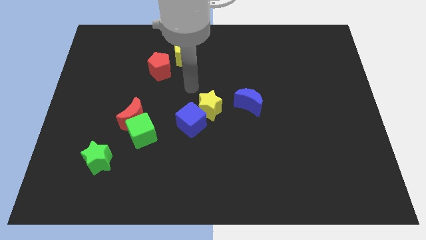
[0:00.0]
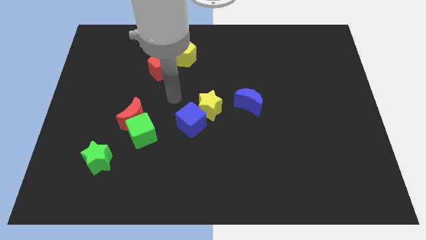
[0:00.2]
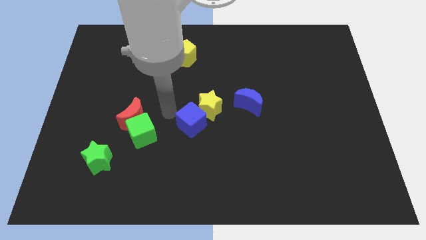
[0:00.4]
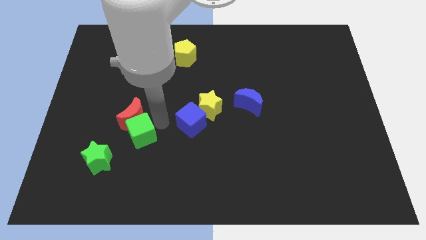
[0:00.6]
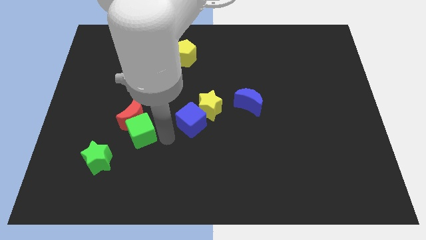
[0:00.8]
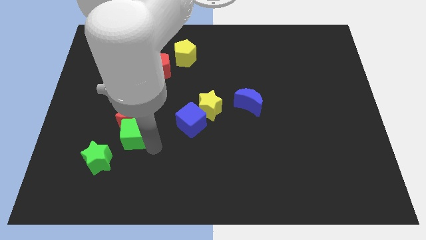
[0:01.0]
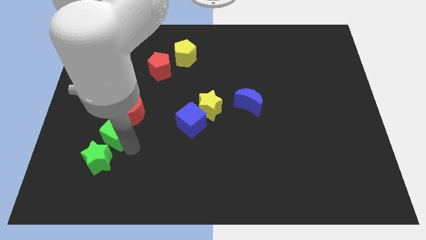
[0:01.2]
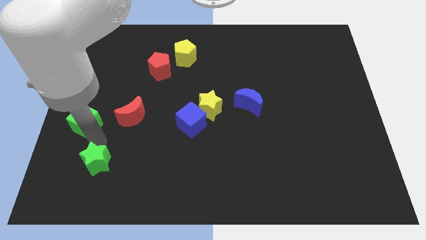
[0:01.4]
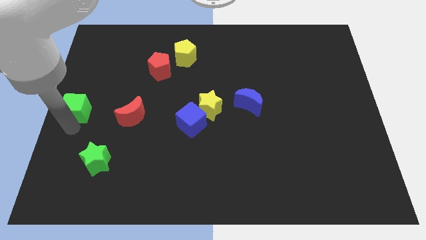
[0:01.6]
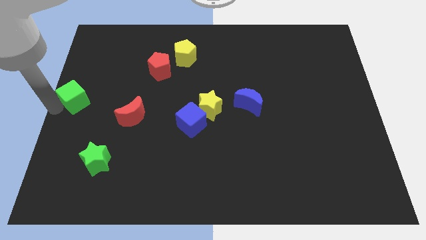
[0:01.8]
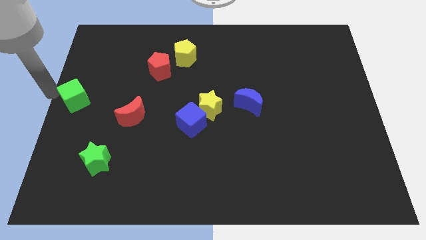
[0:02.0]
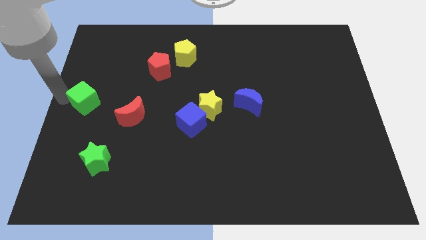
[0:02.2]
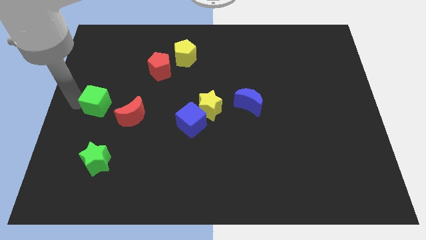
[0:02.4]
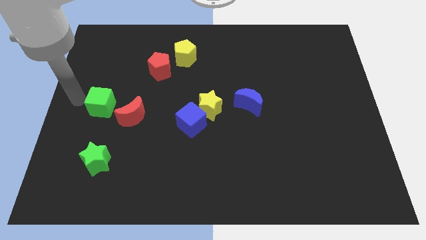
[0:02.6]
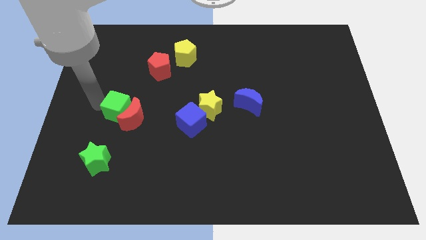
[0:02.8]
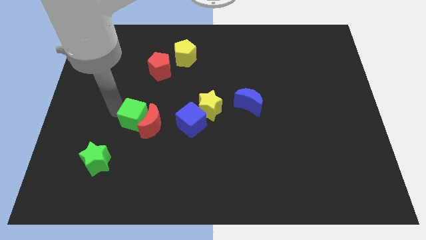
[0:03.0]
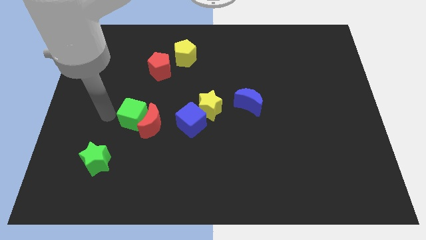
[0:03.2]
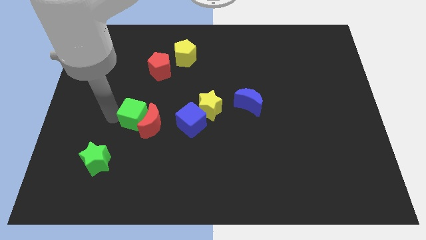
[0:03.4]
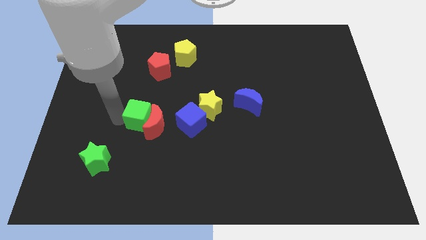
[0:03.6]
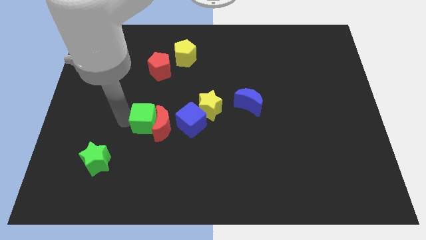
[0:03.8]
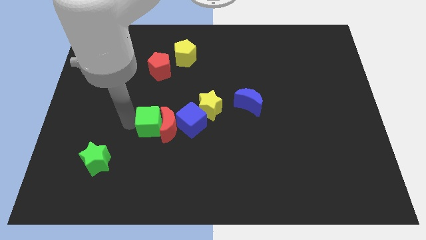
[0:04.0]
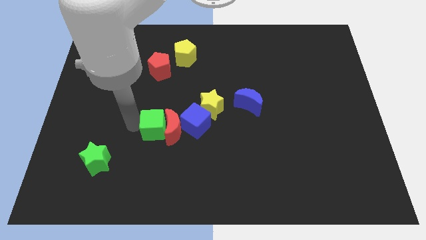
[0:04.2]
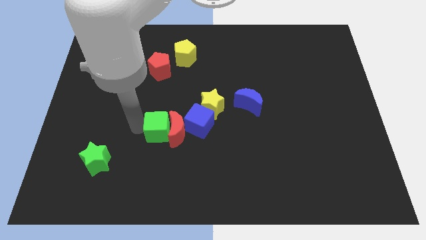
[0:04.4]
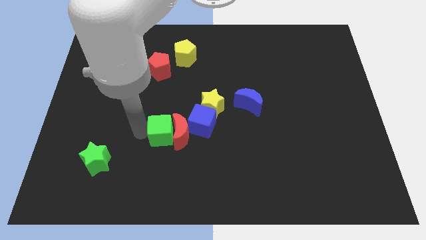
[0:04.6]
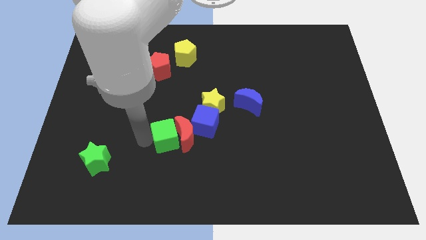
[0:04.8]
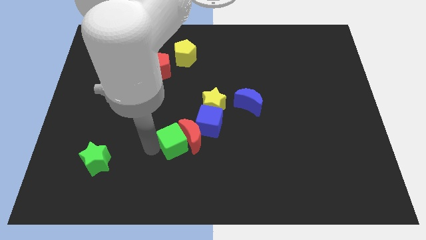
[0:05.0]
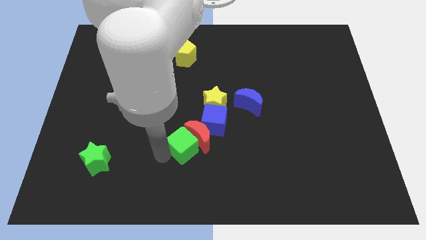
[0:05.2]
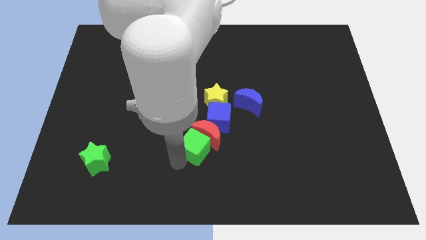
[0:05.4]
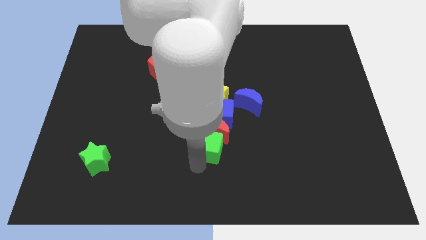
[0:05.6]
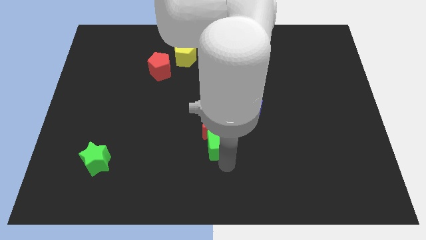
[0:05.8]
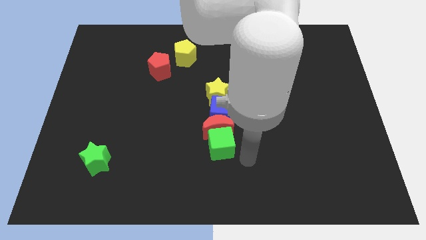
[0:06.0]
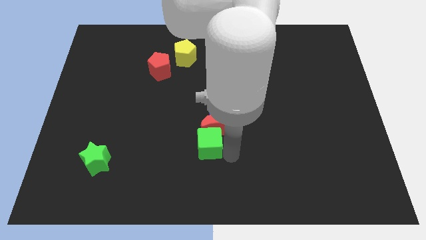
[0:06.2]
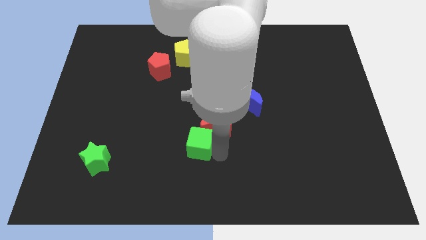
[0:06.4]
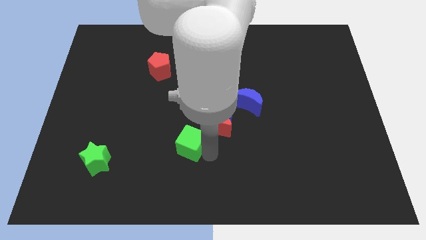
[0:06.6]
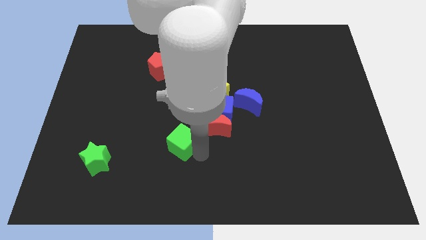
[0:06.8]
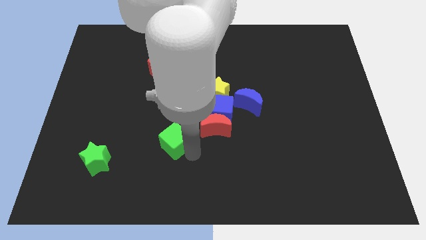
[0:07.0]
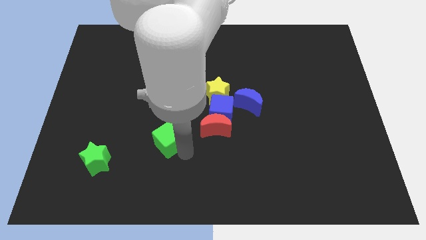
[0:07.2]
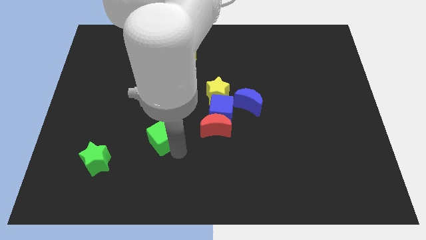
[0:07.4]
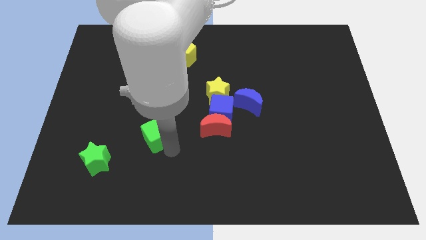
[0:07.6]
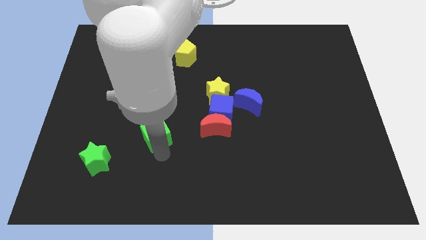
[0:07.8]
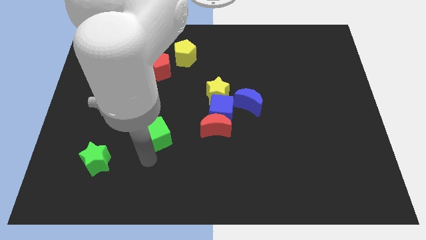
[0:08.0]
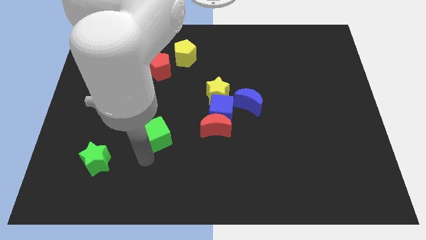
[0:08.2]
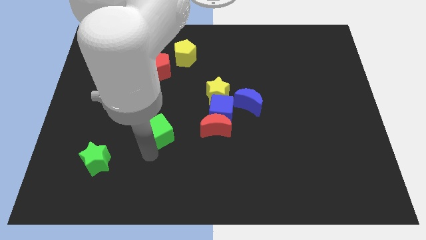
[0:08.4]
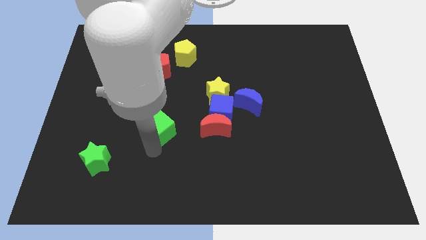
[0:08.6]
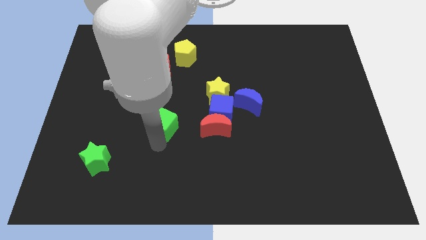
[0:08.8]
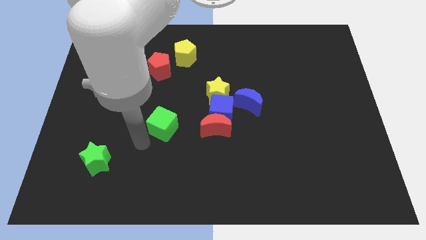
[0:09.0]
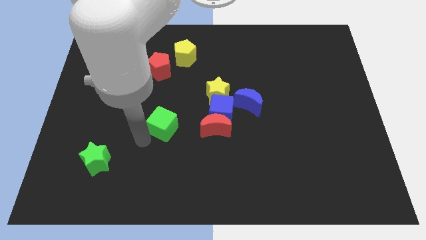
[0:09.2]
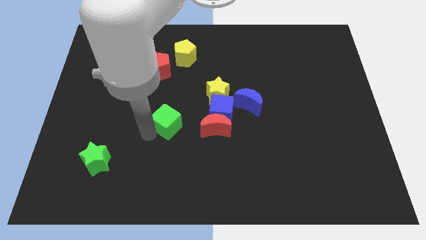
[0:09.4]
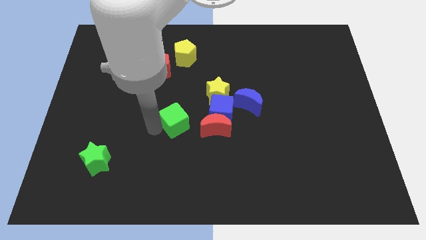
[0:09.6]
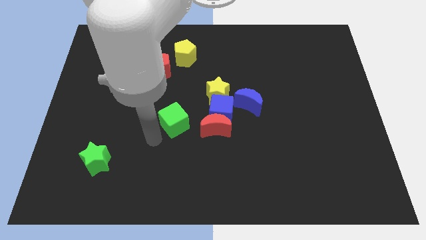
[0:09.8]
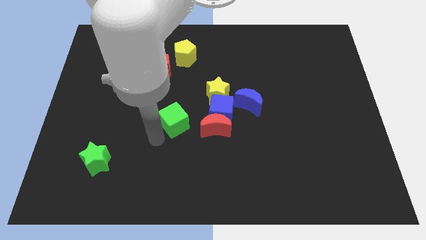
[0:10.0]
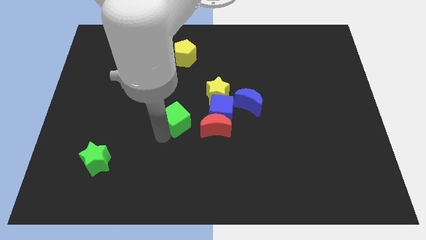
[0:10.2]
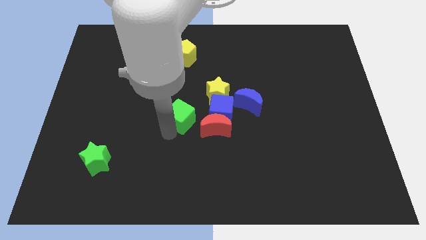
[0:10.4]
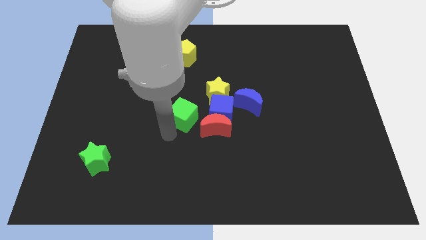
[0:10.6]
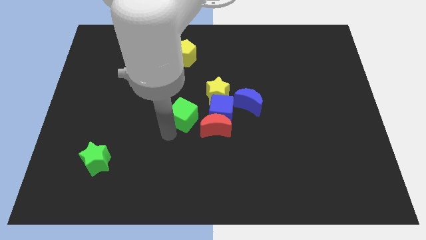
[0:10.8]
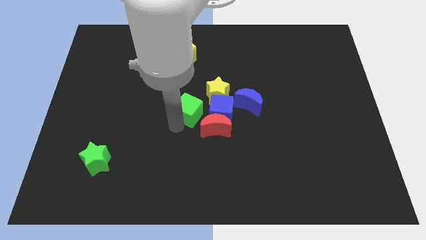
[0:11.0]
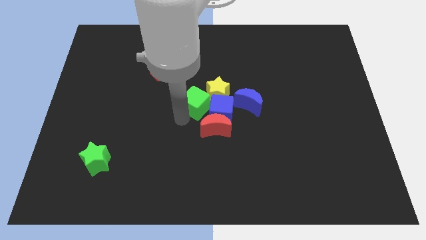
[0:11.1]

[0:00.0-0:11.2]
slide the green cube to the yellow star

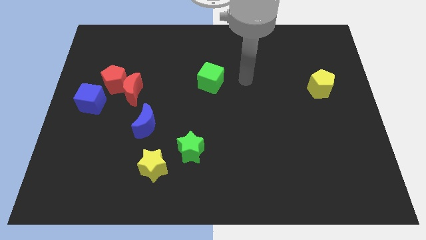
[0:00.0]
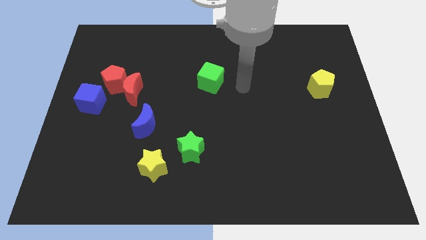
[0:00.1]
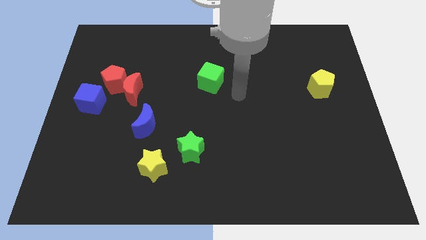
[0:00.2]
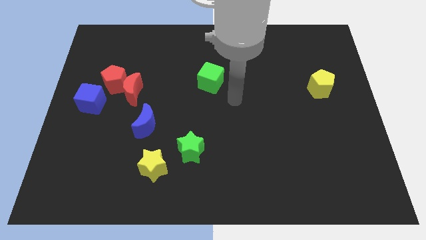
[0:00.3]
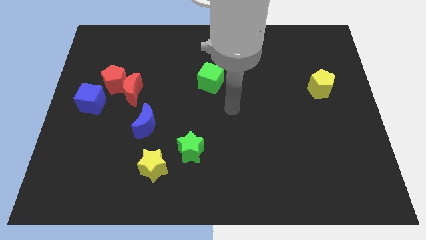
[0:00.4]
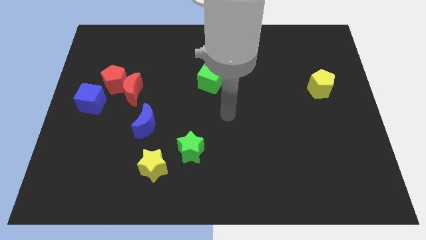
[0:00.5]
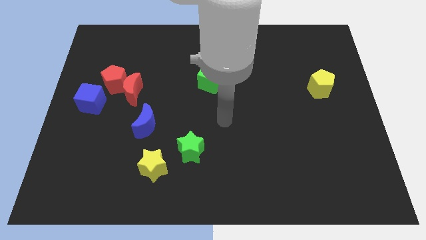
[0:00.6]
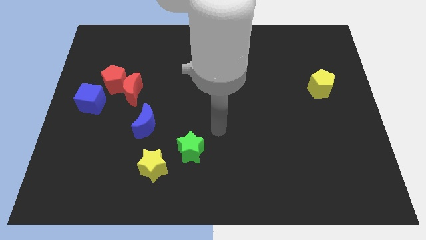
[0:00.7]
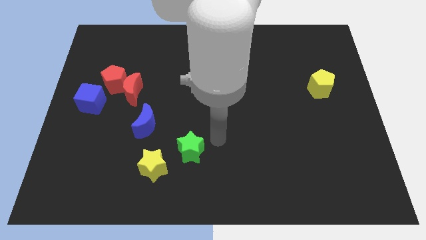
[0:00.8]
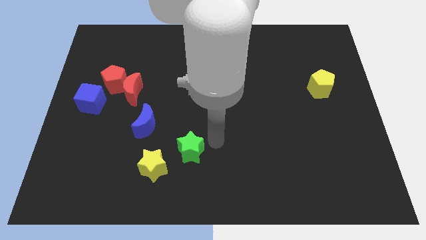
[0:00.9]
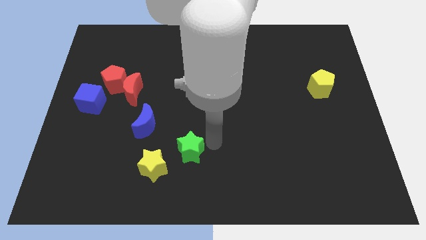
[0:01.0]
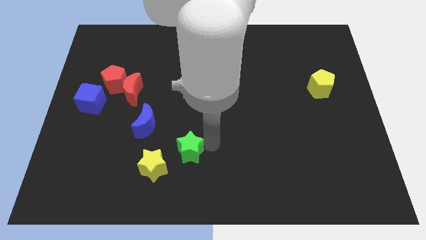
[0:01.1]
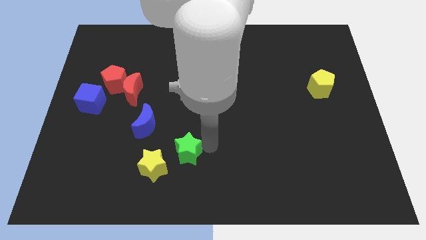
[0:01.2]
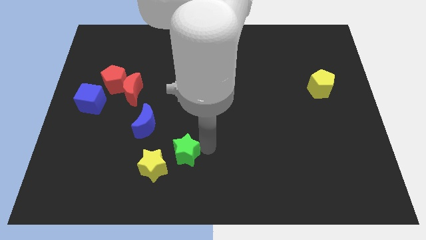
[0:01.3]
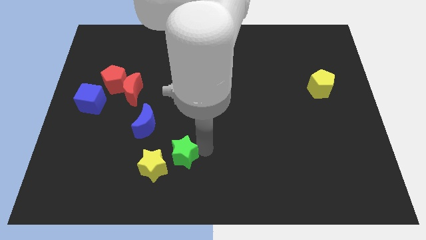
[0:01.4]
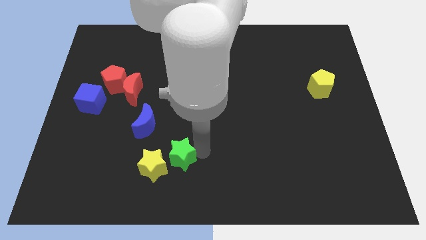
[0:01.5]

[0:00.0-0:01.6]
put the green star to the yellow star
